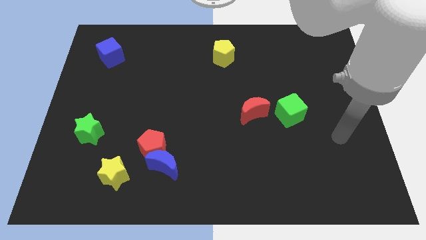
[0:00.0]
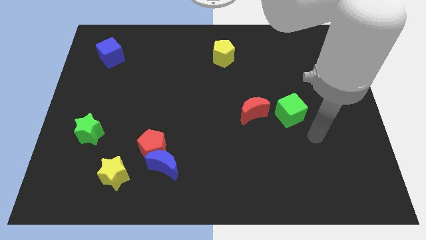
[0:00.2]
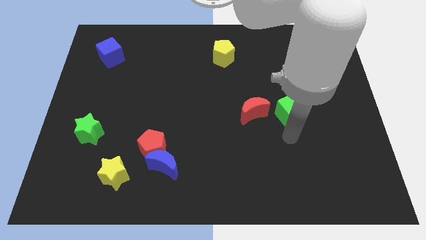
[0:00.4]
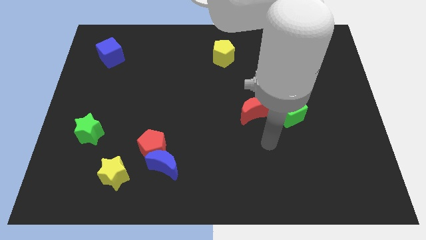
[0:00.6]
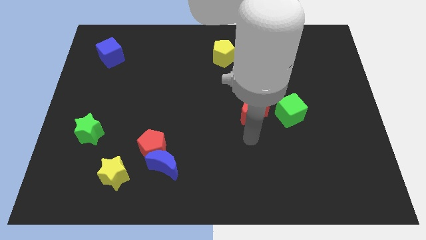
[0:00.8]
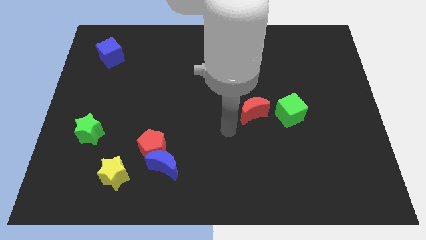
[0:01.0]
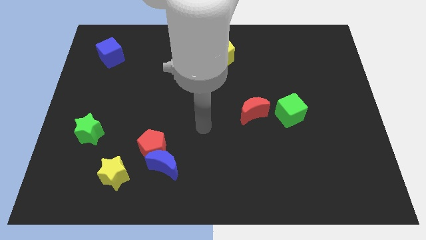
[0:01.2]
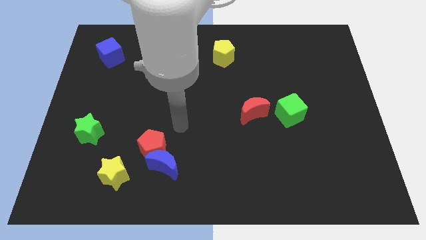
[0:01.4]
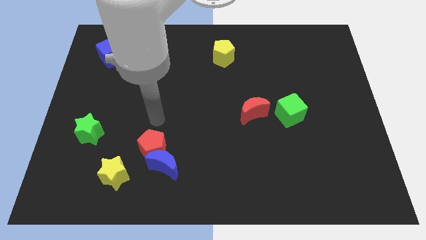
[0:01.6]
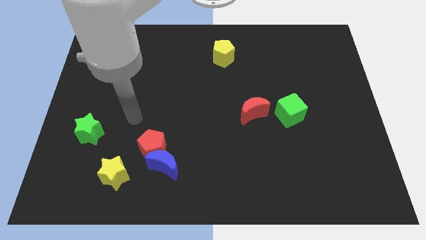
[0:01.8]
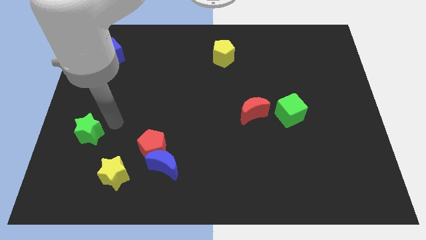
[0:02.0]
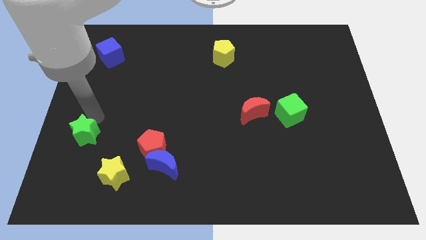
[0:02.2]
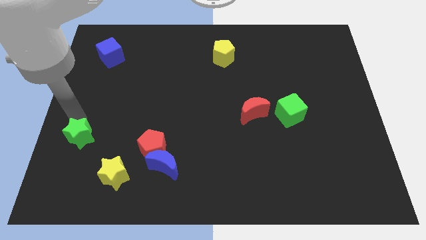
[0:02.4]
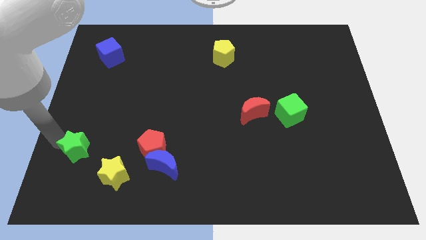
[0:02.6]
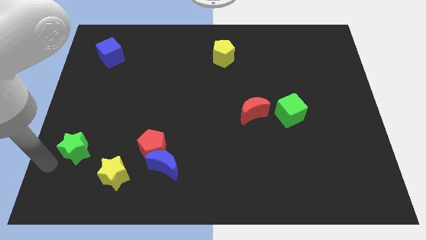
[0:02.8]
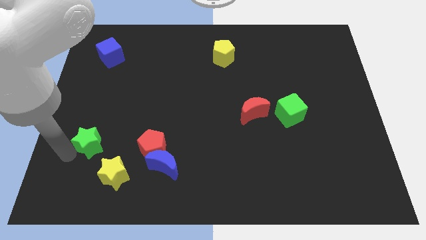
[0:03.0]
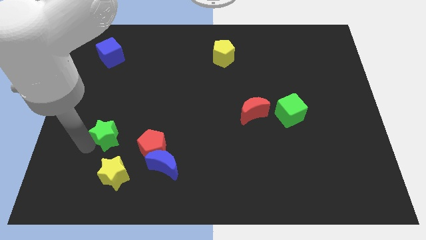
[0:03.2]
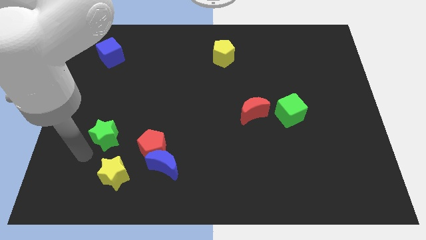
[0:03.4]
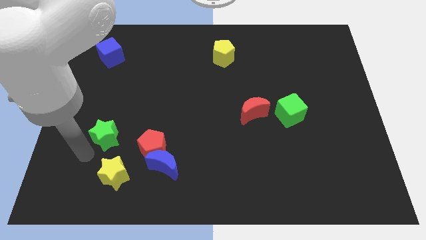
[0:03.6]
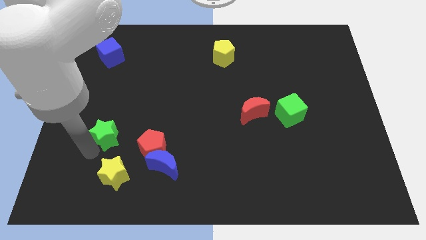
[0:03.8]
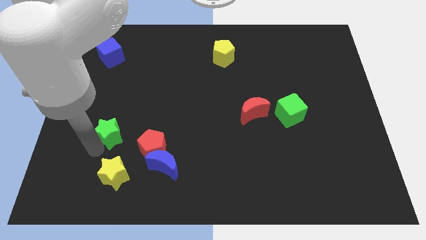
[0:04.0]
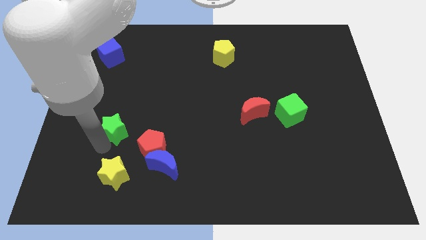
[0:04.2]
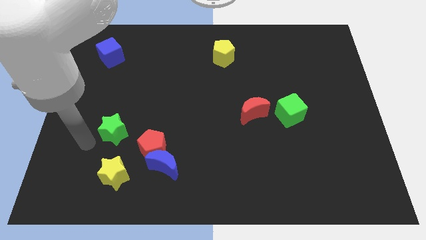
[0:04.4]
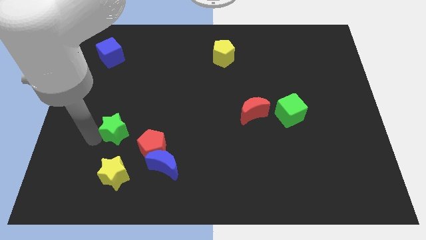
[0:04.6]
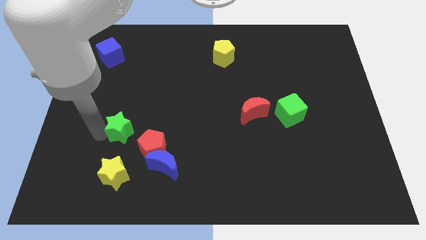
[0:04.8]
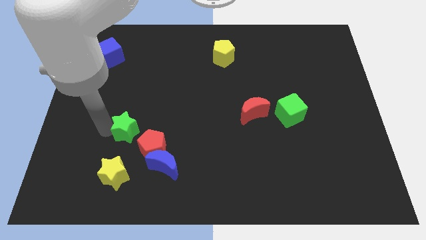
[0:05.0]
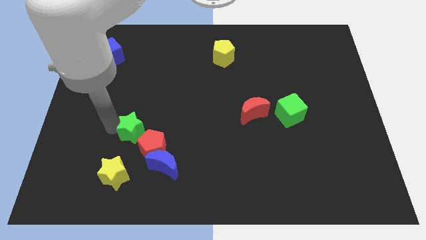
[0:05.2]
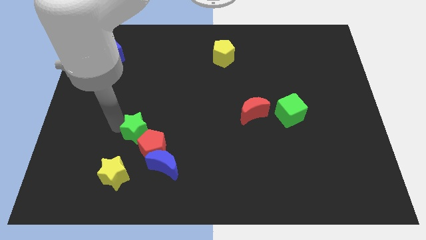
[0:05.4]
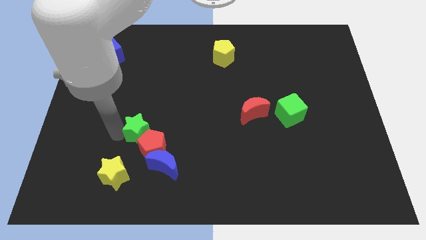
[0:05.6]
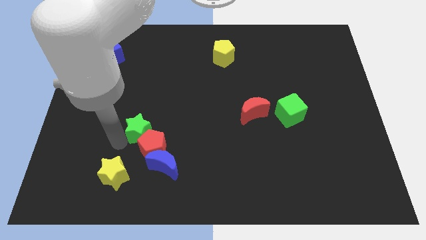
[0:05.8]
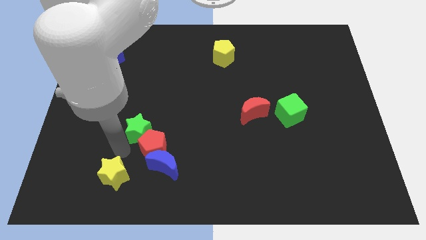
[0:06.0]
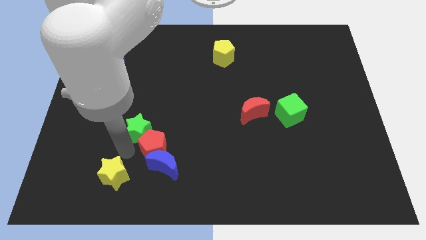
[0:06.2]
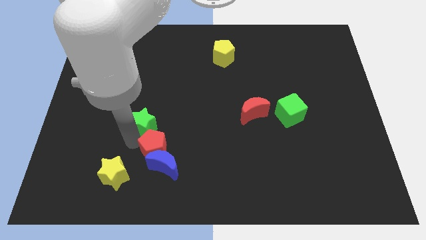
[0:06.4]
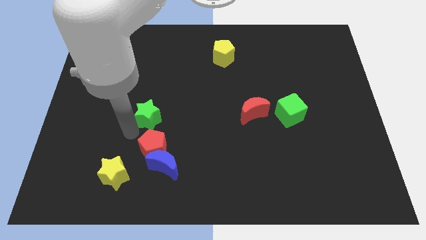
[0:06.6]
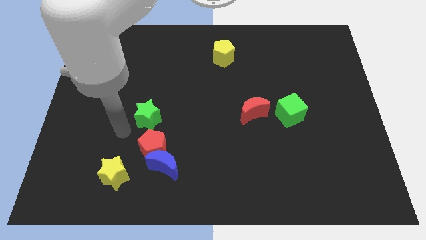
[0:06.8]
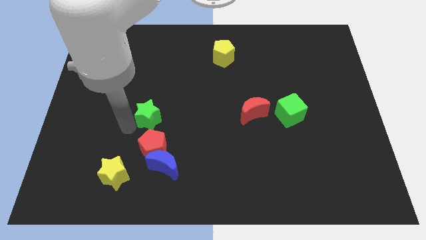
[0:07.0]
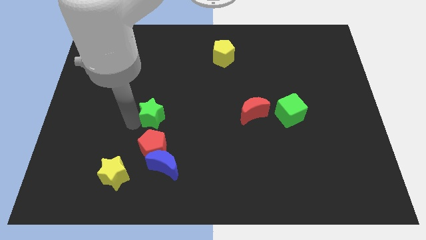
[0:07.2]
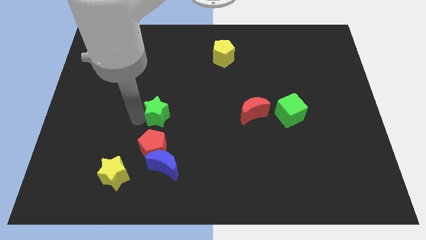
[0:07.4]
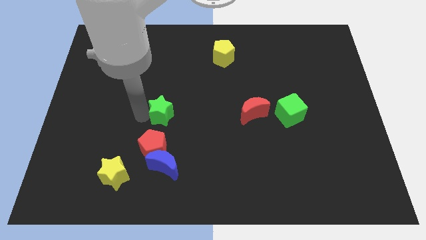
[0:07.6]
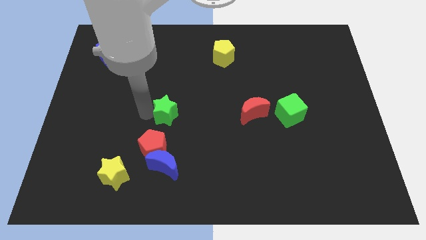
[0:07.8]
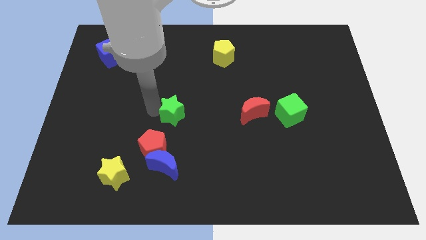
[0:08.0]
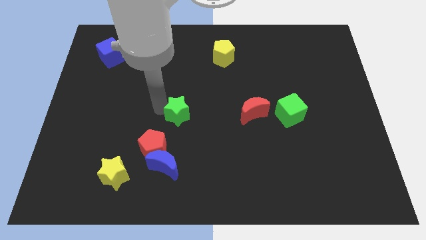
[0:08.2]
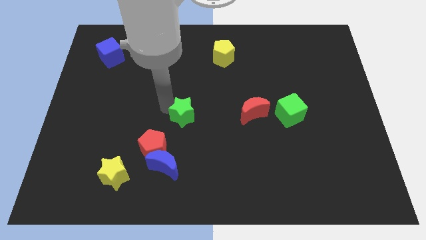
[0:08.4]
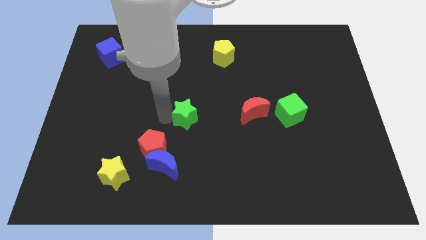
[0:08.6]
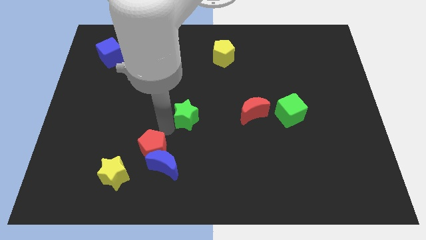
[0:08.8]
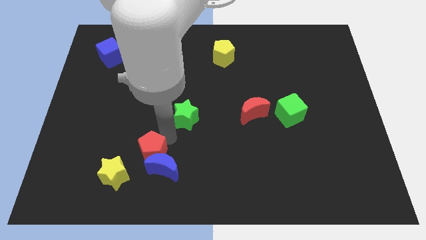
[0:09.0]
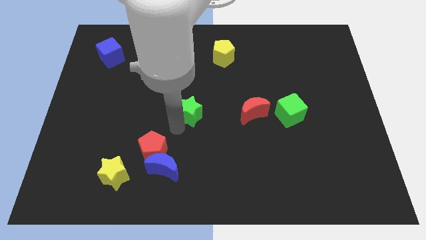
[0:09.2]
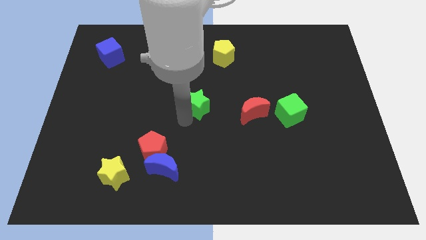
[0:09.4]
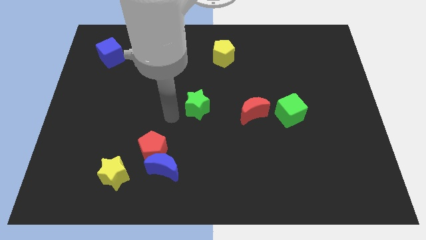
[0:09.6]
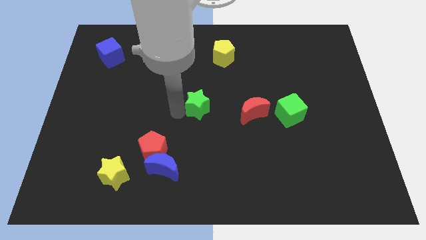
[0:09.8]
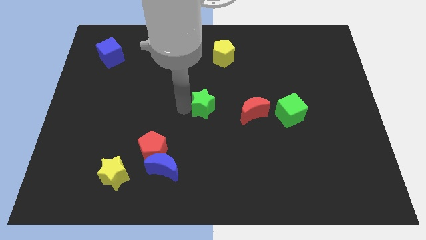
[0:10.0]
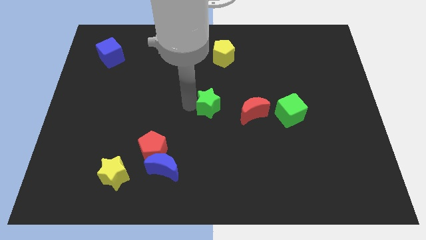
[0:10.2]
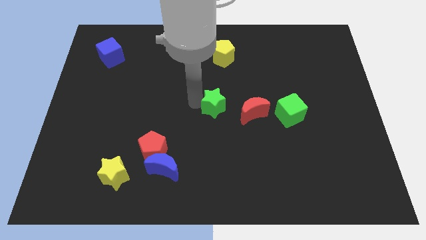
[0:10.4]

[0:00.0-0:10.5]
slide the green star to the top left side of the red moon

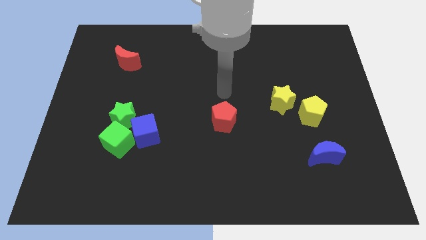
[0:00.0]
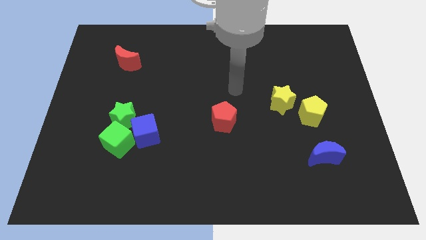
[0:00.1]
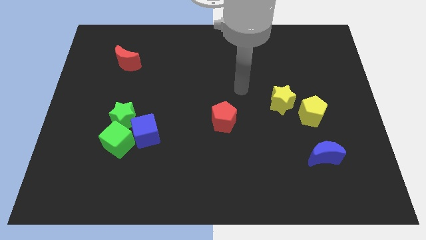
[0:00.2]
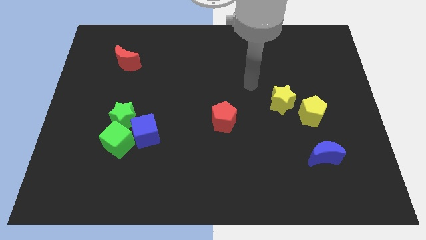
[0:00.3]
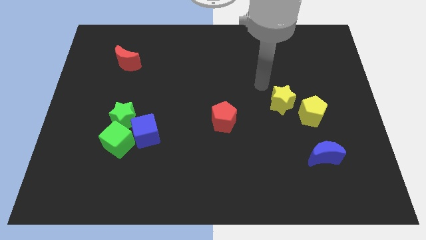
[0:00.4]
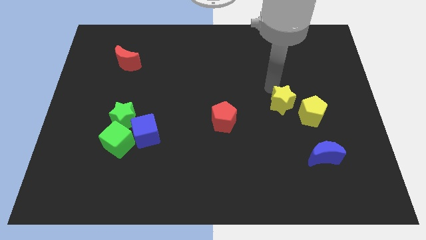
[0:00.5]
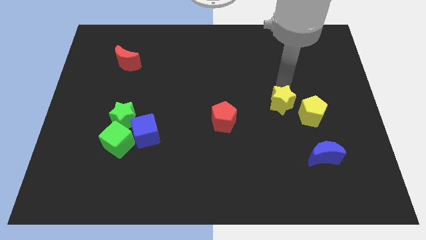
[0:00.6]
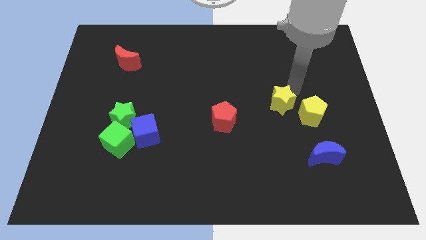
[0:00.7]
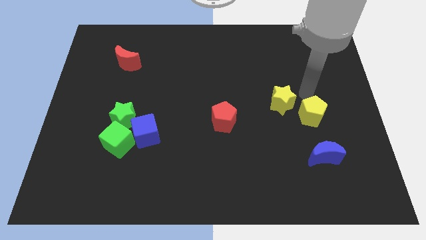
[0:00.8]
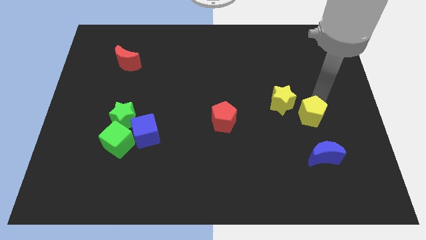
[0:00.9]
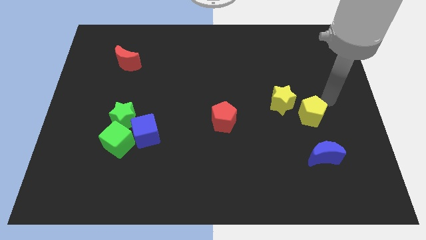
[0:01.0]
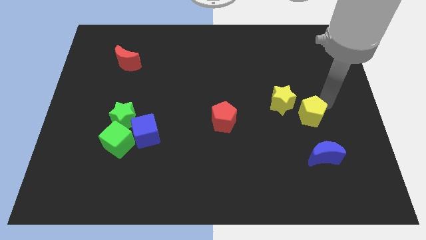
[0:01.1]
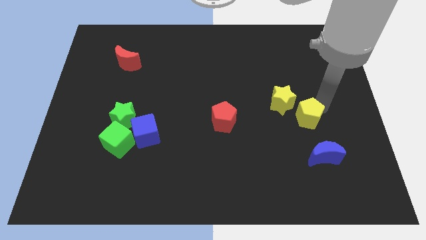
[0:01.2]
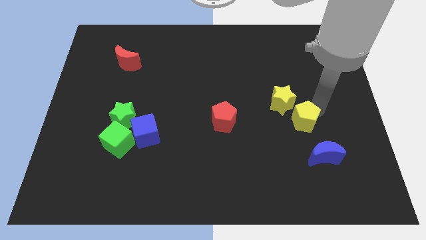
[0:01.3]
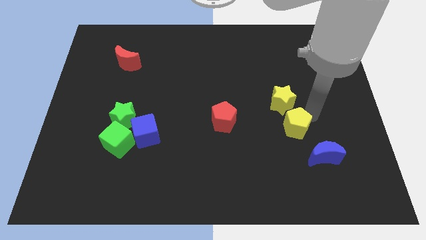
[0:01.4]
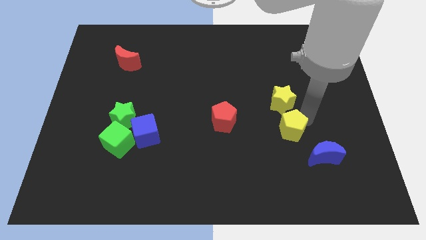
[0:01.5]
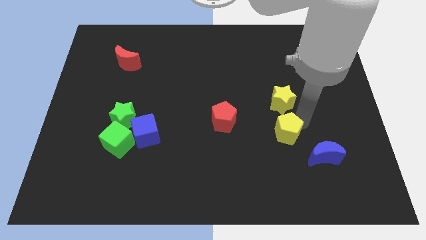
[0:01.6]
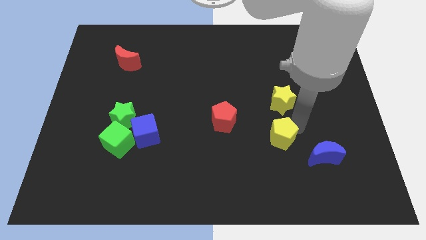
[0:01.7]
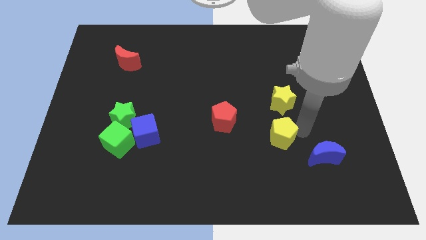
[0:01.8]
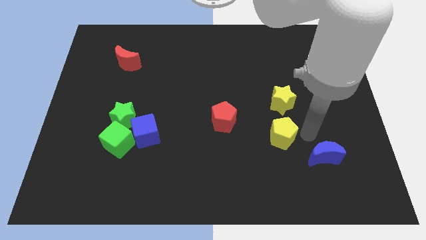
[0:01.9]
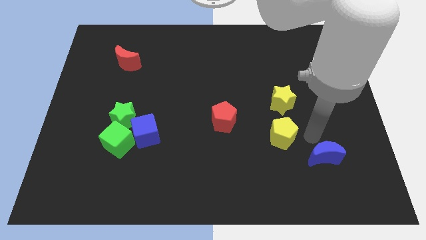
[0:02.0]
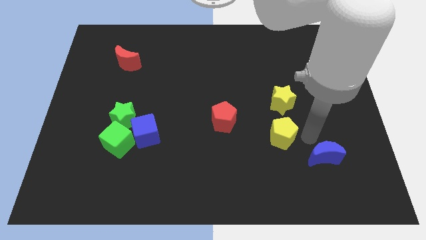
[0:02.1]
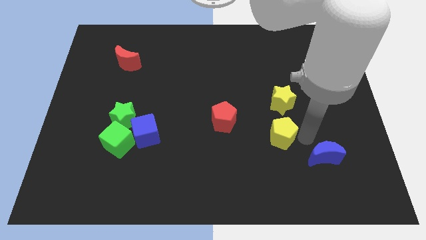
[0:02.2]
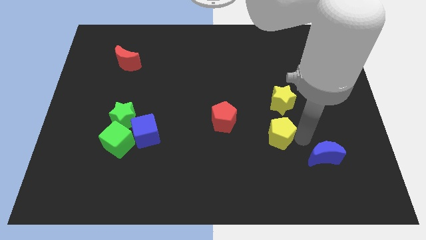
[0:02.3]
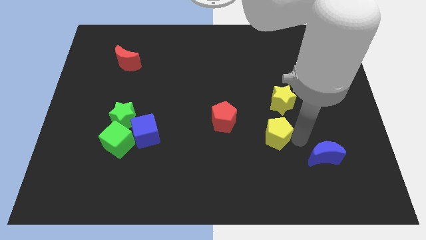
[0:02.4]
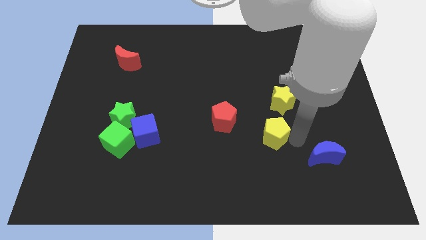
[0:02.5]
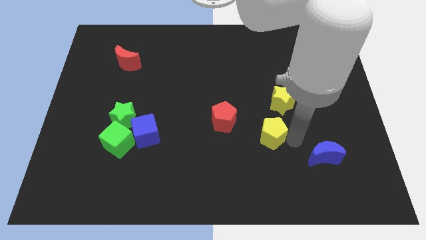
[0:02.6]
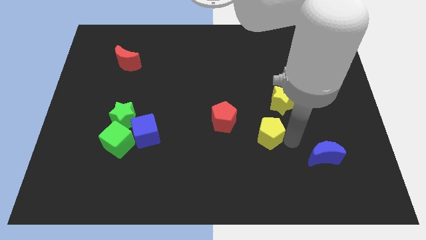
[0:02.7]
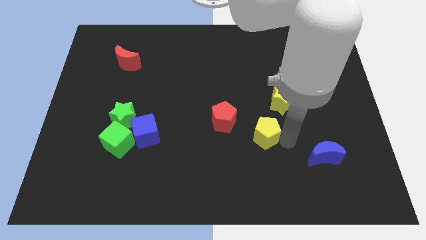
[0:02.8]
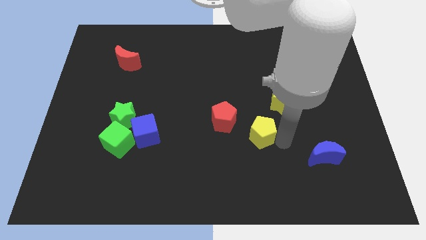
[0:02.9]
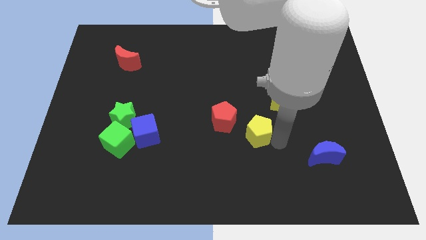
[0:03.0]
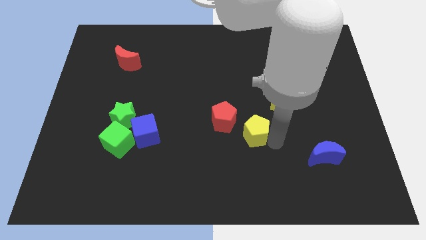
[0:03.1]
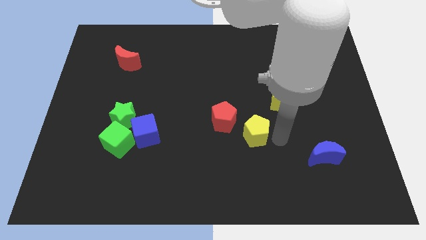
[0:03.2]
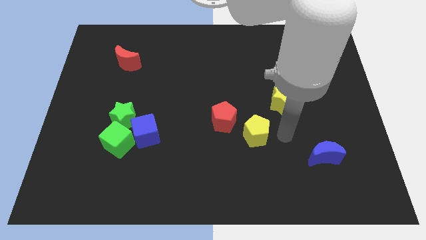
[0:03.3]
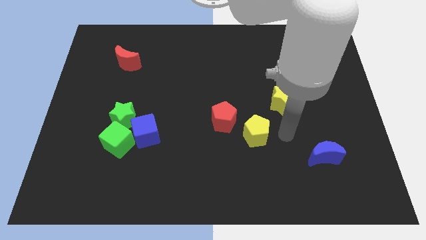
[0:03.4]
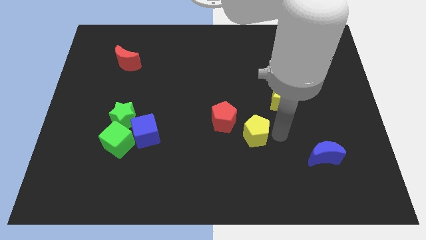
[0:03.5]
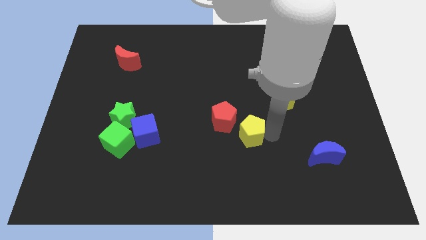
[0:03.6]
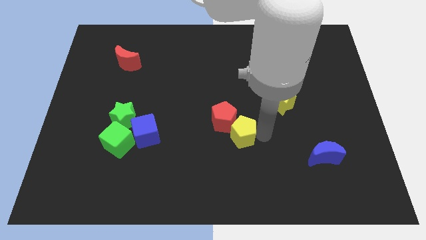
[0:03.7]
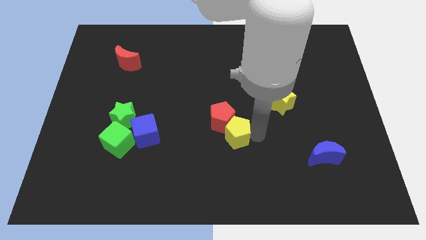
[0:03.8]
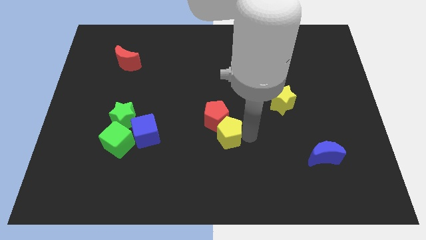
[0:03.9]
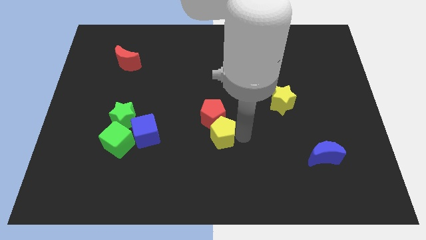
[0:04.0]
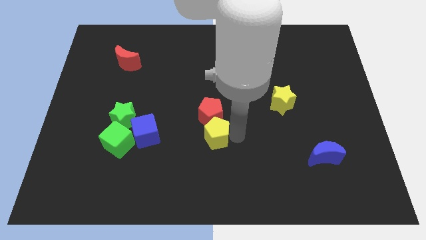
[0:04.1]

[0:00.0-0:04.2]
move the yellow pentagon to the right side of the blue cube
